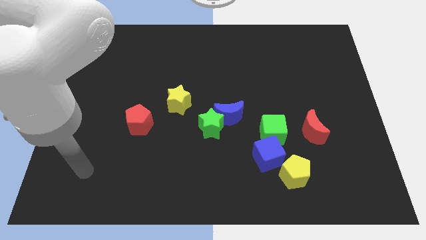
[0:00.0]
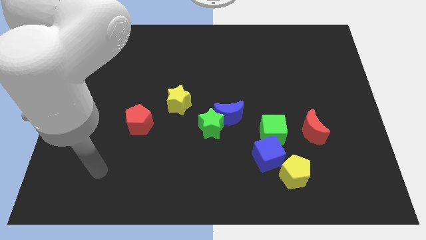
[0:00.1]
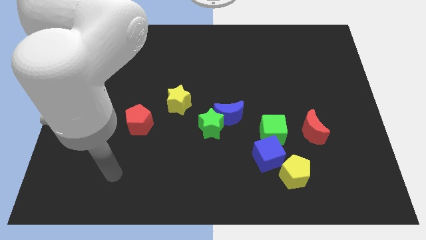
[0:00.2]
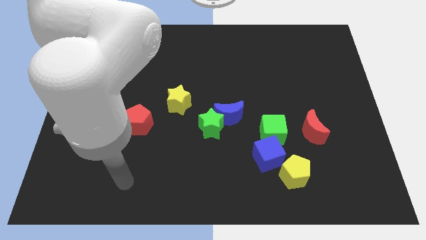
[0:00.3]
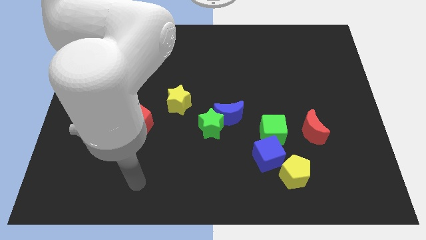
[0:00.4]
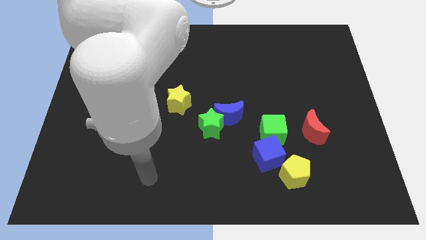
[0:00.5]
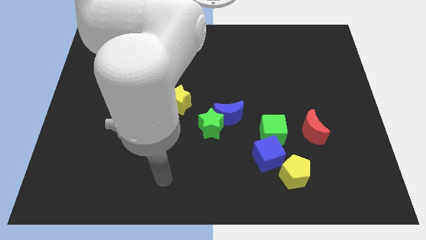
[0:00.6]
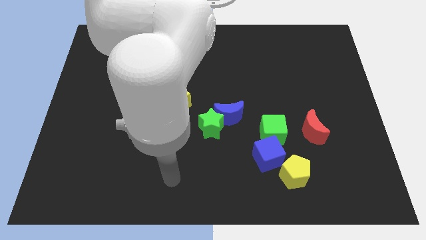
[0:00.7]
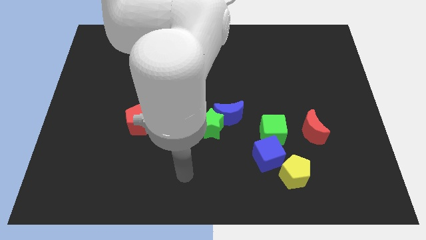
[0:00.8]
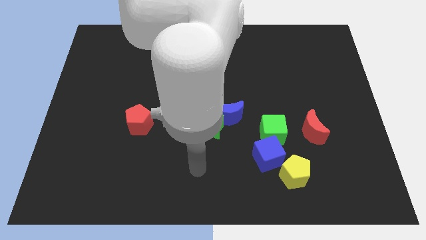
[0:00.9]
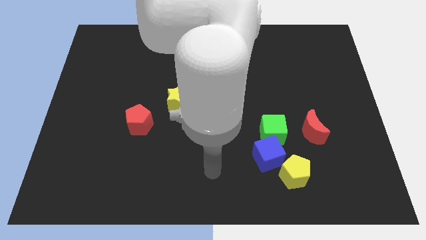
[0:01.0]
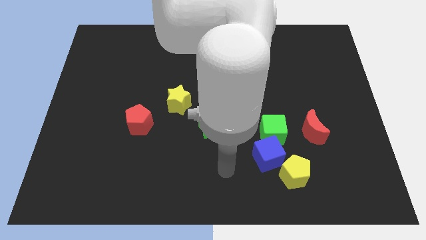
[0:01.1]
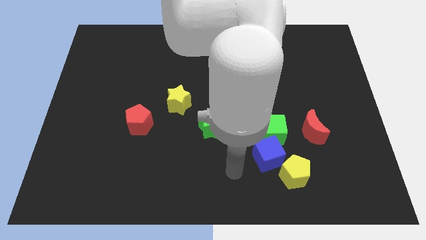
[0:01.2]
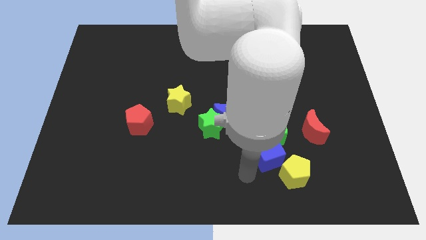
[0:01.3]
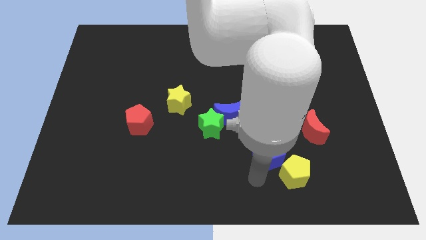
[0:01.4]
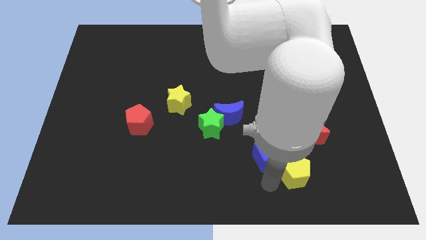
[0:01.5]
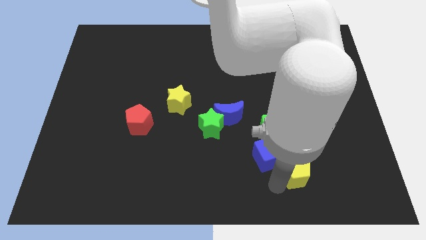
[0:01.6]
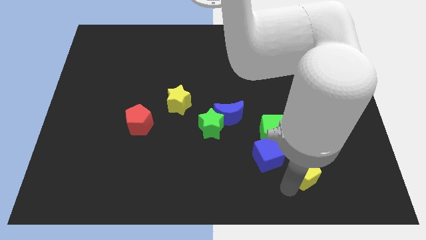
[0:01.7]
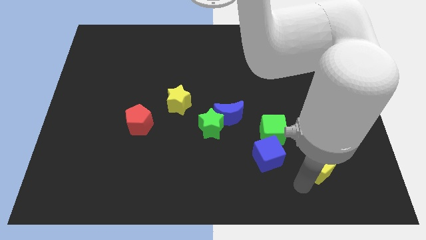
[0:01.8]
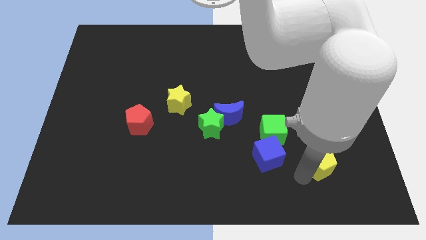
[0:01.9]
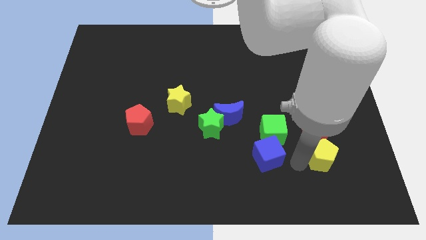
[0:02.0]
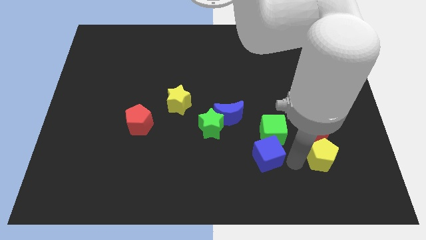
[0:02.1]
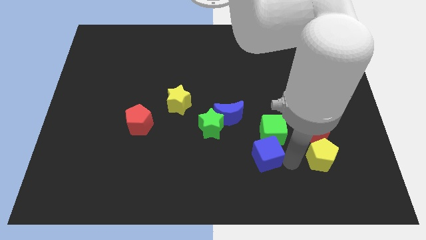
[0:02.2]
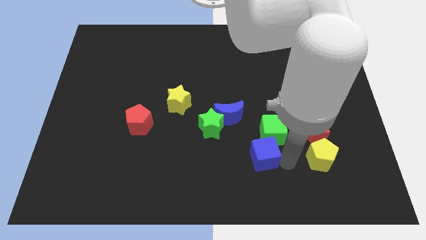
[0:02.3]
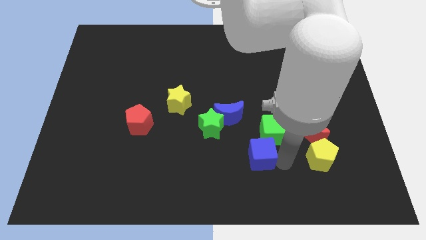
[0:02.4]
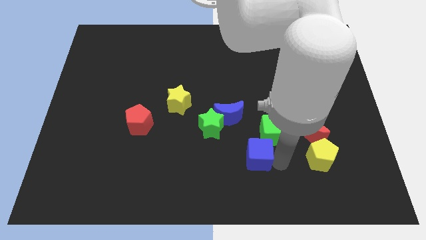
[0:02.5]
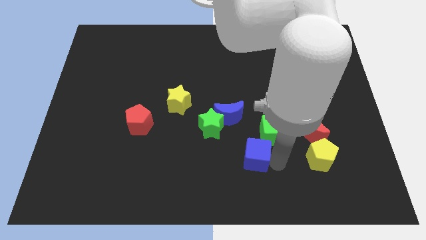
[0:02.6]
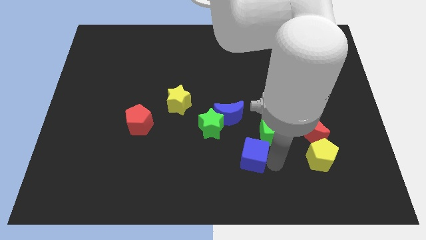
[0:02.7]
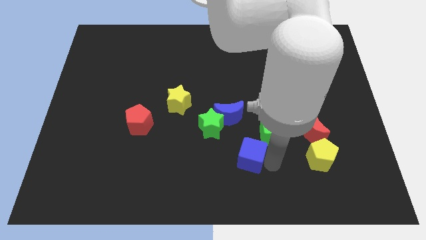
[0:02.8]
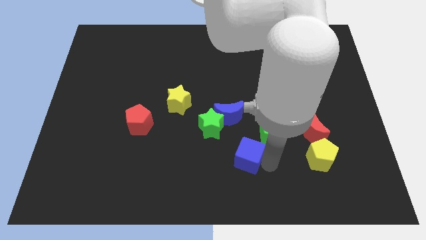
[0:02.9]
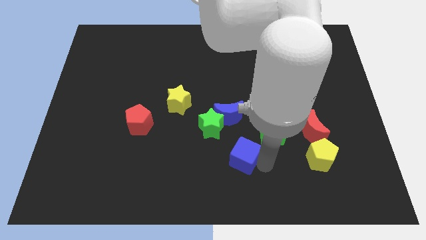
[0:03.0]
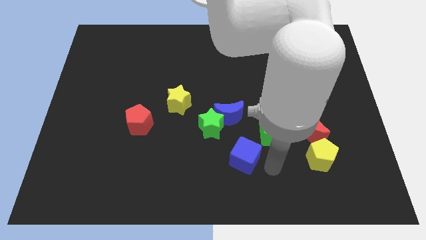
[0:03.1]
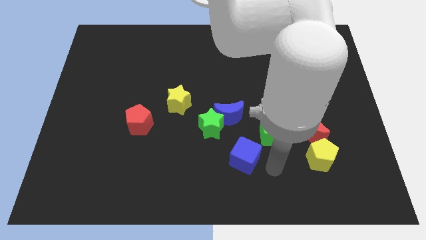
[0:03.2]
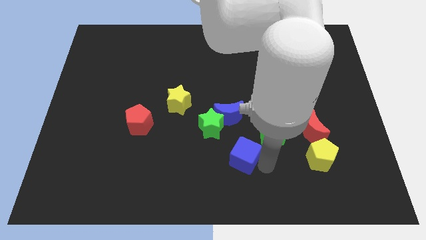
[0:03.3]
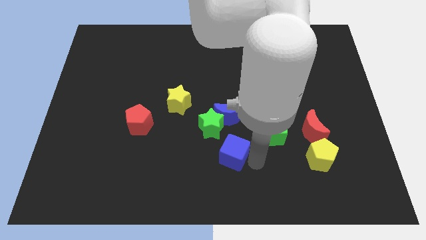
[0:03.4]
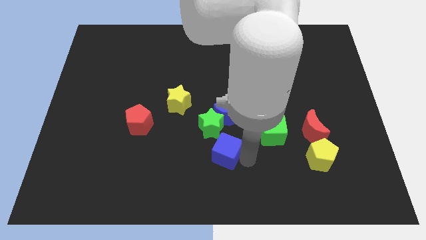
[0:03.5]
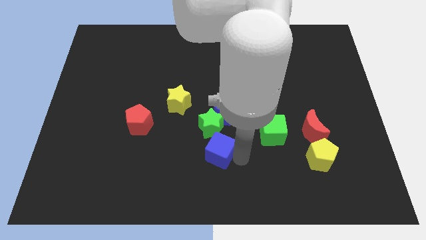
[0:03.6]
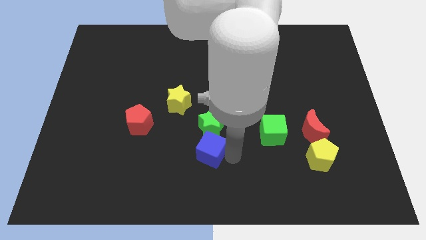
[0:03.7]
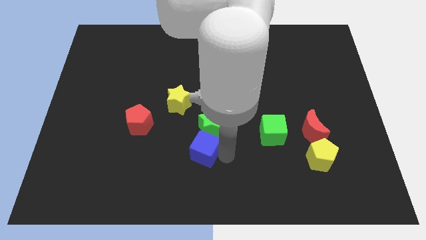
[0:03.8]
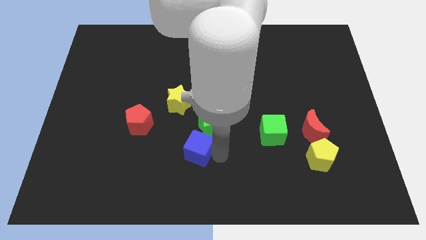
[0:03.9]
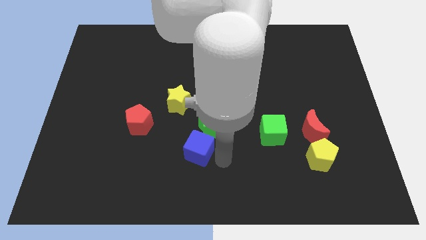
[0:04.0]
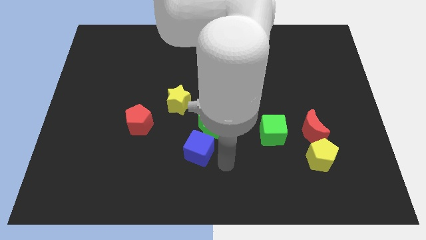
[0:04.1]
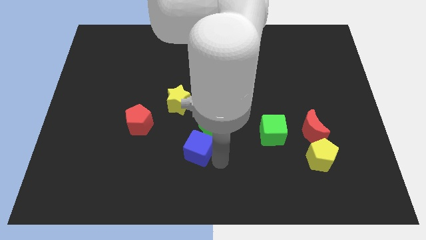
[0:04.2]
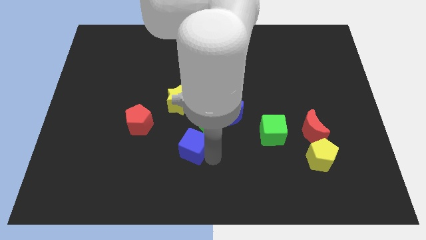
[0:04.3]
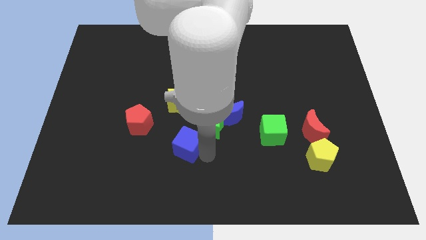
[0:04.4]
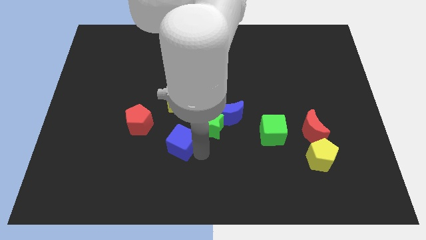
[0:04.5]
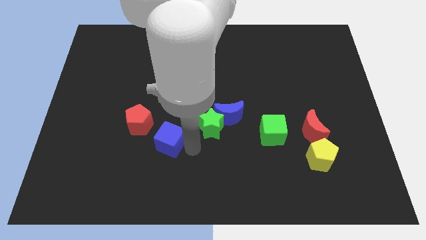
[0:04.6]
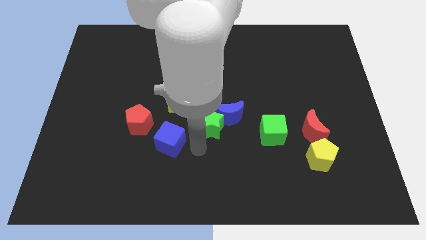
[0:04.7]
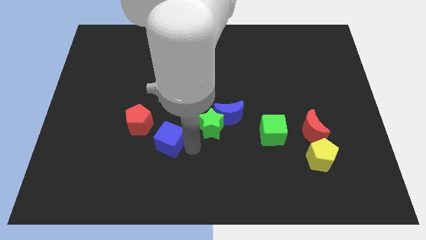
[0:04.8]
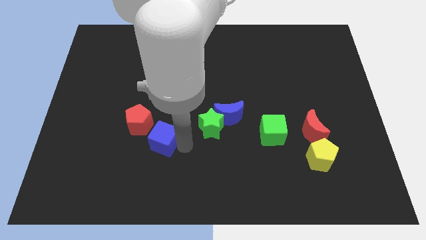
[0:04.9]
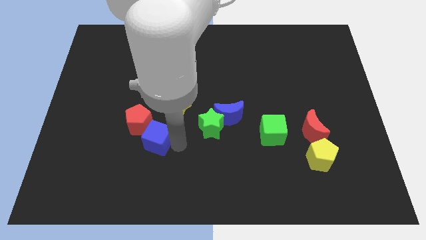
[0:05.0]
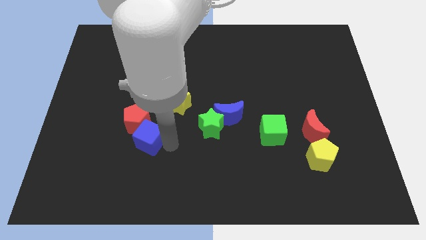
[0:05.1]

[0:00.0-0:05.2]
put the blue cube next to the red pentagon

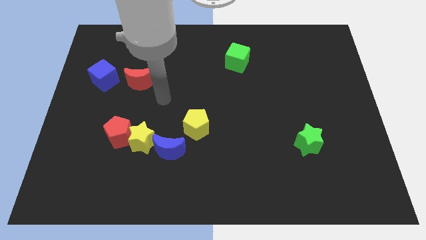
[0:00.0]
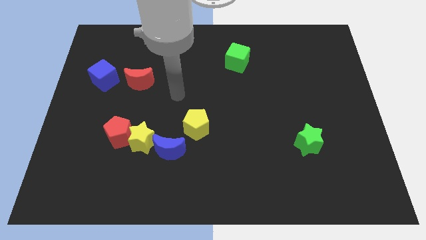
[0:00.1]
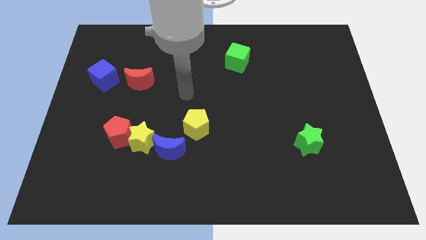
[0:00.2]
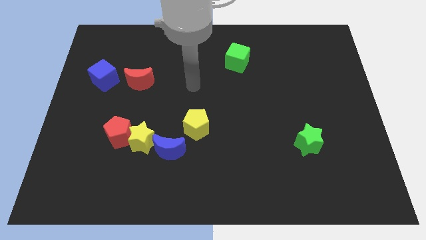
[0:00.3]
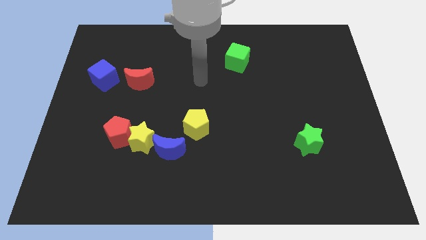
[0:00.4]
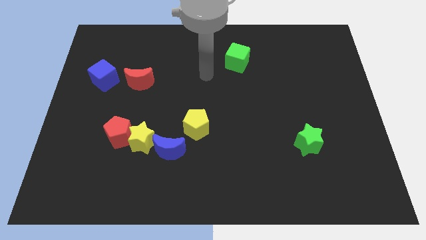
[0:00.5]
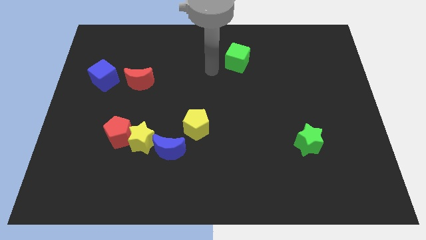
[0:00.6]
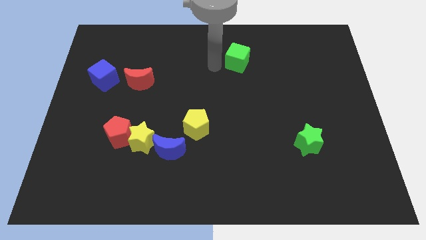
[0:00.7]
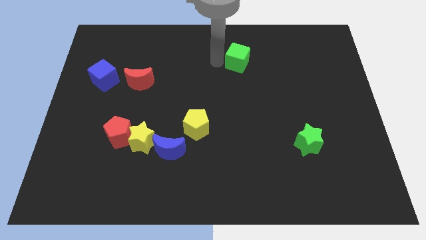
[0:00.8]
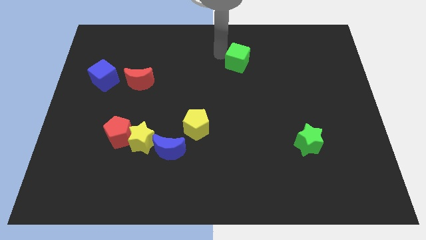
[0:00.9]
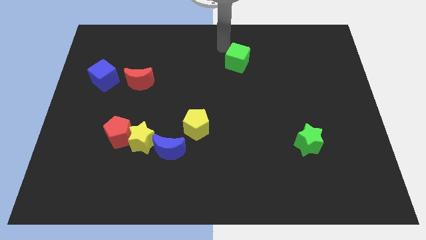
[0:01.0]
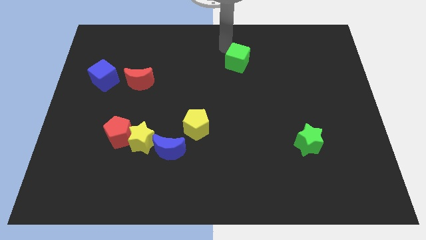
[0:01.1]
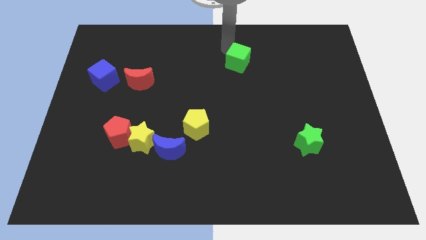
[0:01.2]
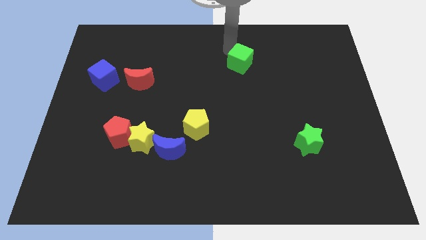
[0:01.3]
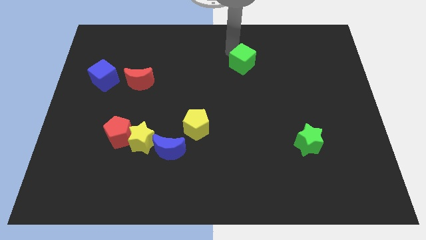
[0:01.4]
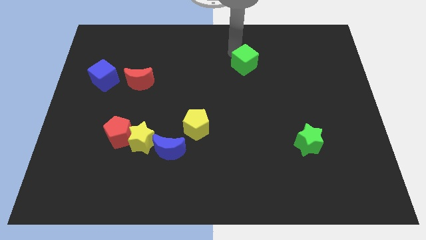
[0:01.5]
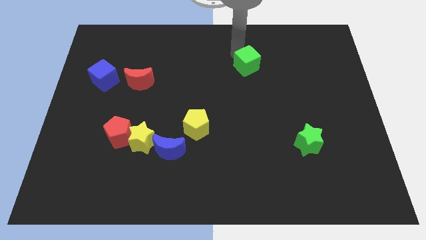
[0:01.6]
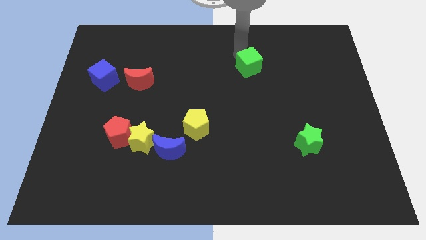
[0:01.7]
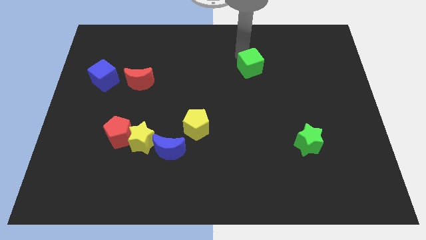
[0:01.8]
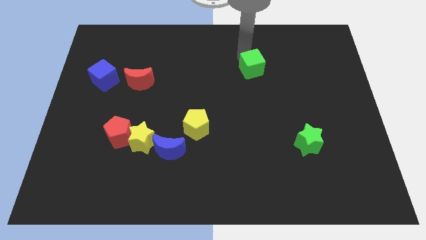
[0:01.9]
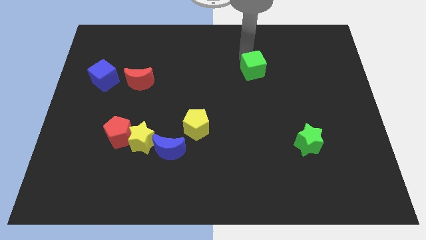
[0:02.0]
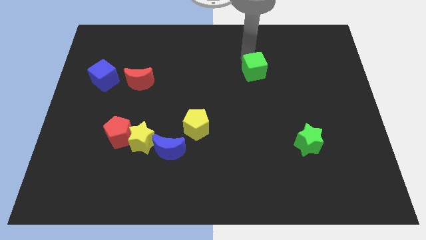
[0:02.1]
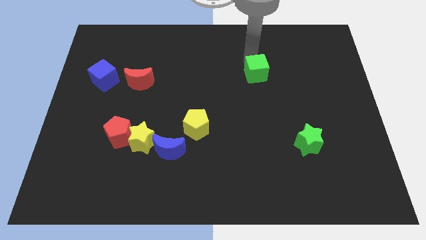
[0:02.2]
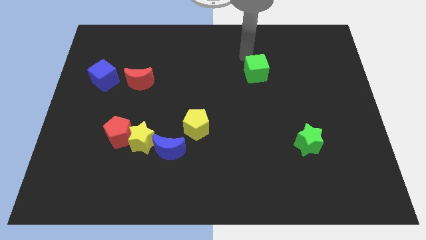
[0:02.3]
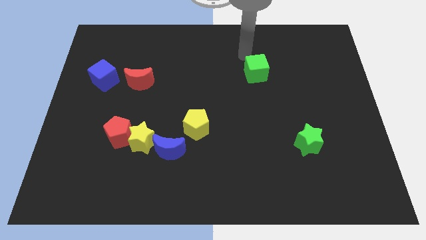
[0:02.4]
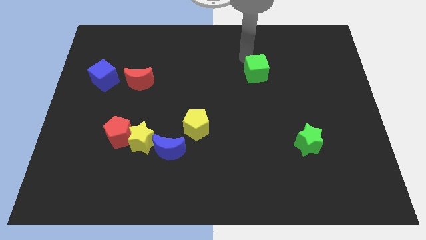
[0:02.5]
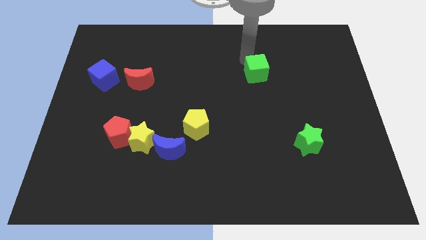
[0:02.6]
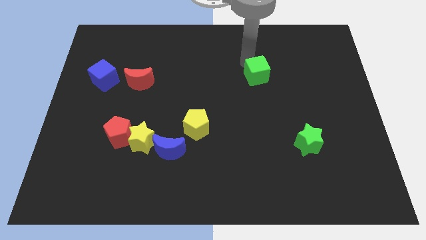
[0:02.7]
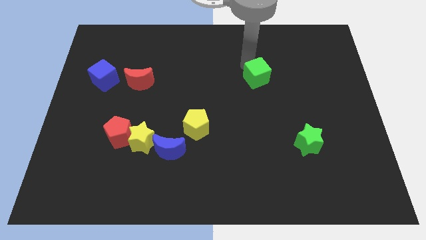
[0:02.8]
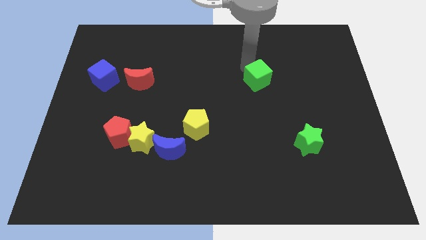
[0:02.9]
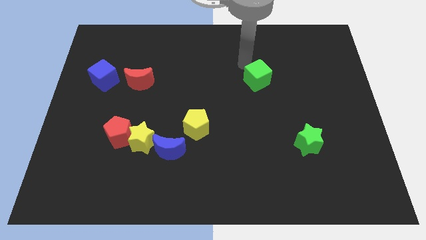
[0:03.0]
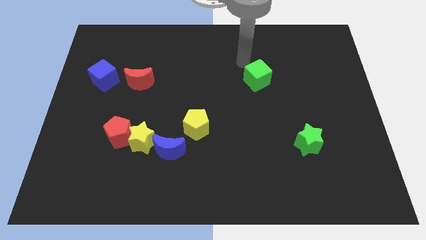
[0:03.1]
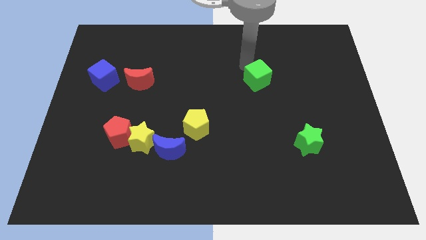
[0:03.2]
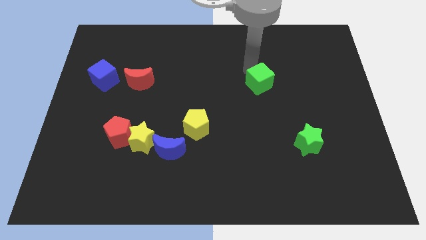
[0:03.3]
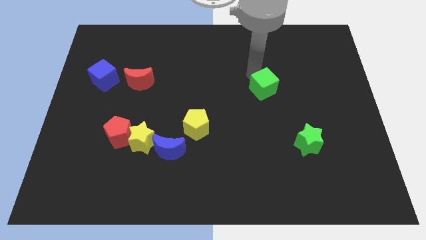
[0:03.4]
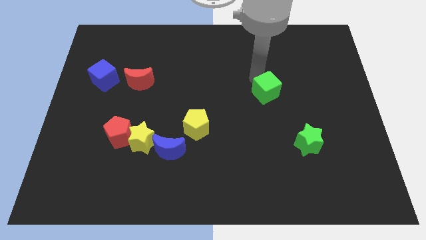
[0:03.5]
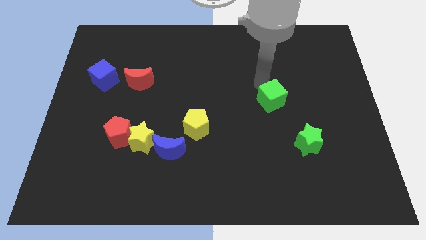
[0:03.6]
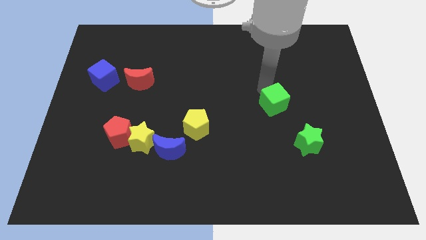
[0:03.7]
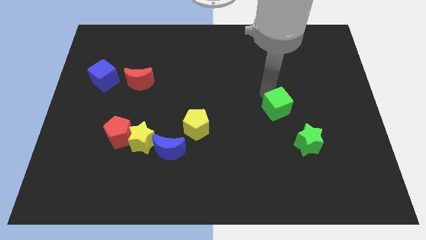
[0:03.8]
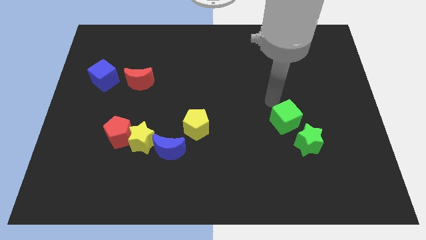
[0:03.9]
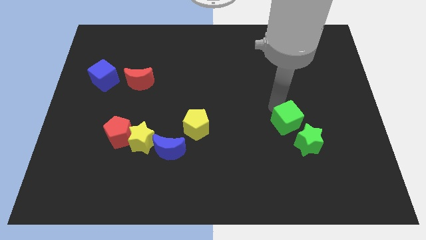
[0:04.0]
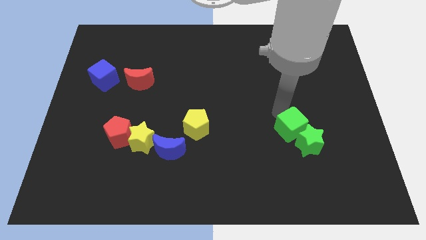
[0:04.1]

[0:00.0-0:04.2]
push the green cube to the green star
